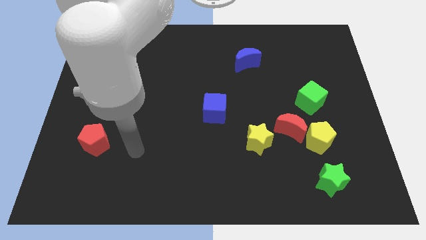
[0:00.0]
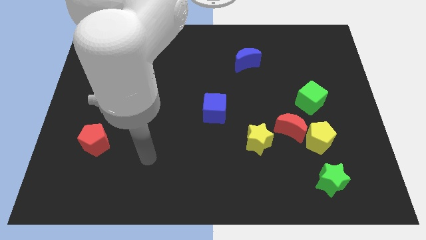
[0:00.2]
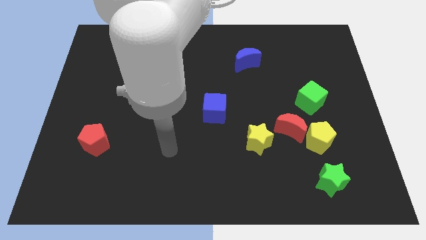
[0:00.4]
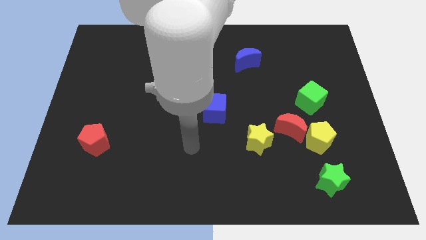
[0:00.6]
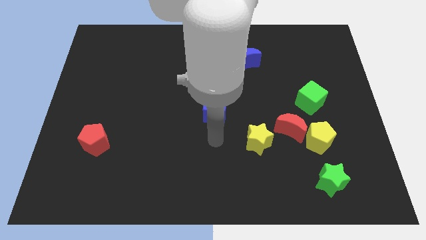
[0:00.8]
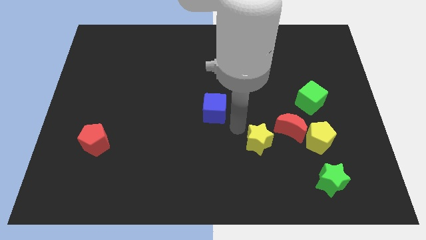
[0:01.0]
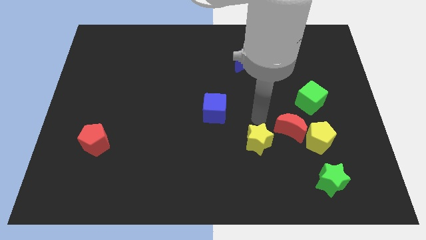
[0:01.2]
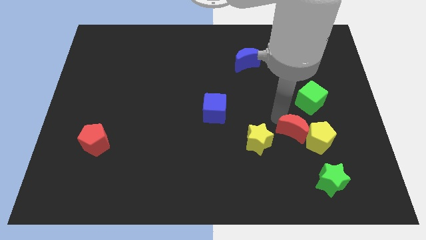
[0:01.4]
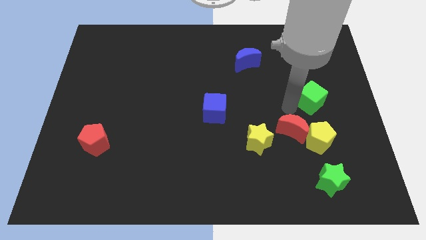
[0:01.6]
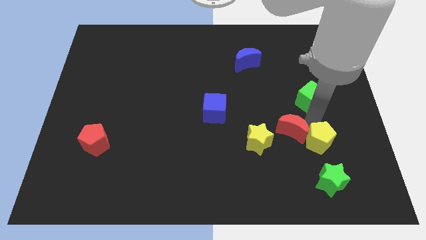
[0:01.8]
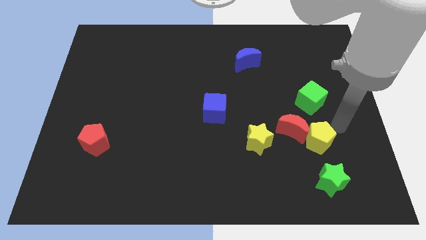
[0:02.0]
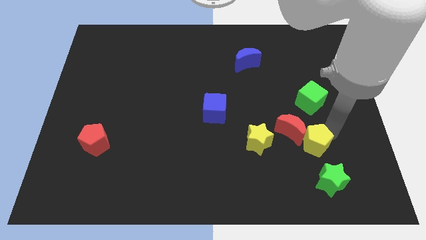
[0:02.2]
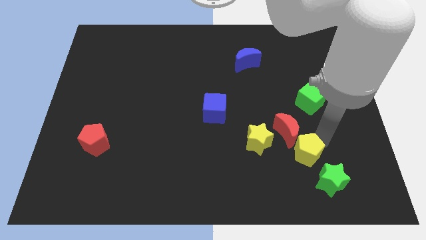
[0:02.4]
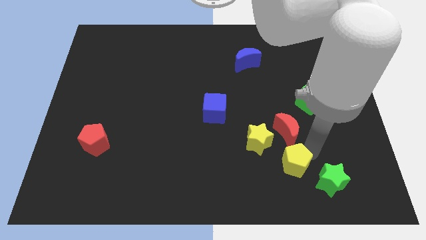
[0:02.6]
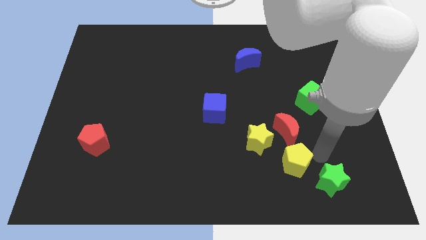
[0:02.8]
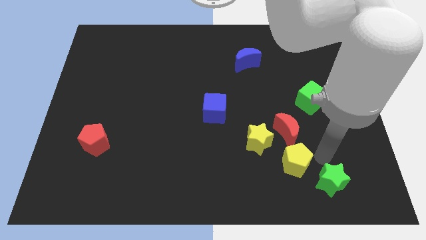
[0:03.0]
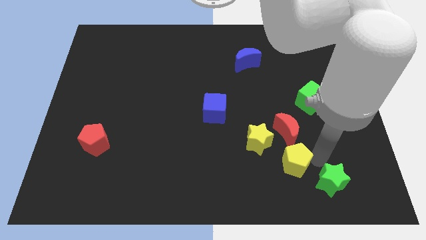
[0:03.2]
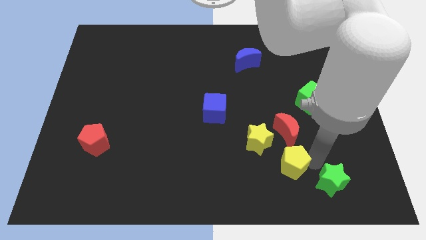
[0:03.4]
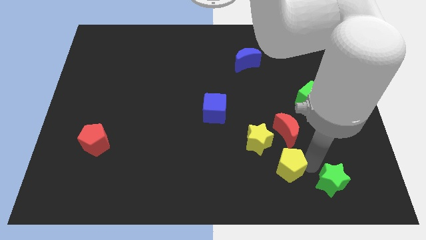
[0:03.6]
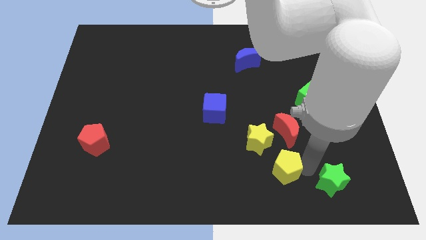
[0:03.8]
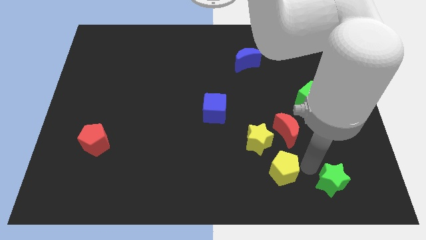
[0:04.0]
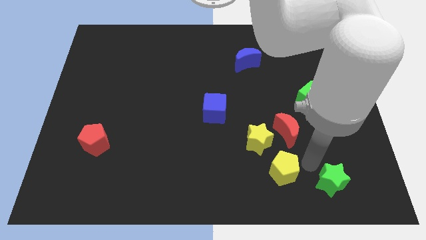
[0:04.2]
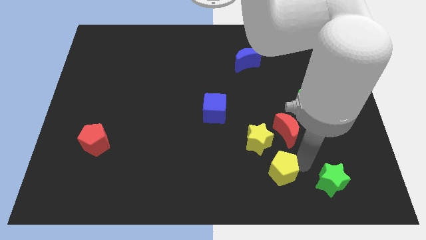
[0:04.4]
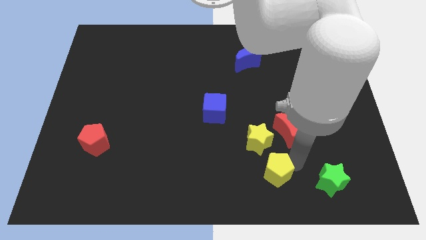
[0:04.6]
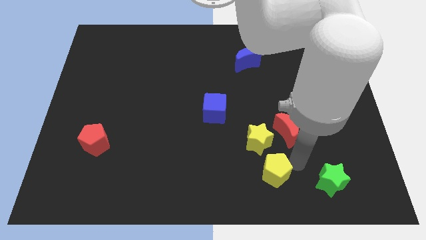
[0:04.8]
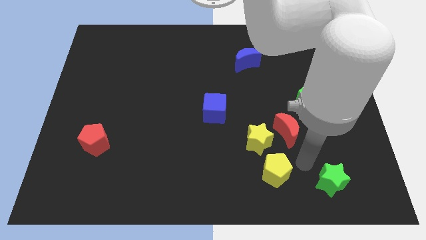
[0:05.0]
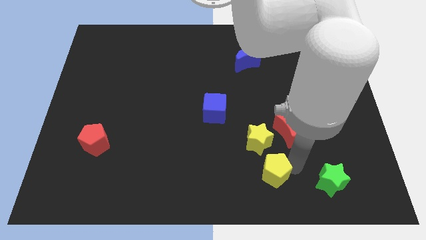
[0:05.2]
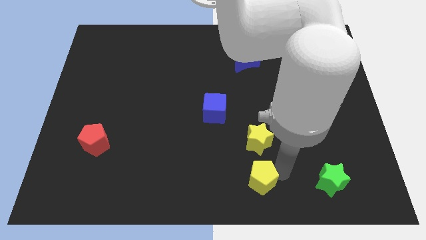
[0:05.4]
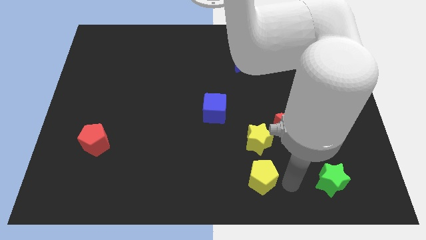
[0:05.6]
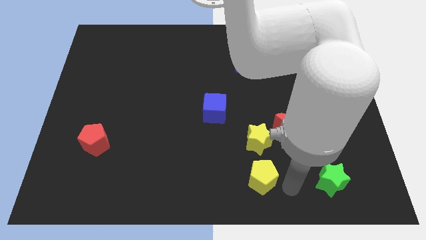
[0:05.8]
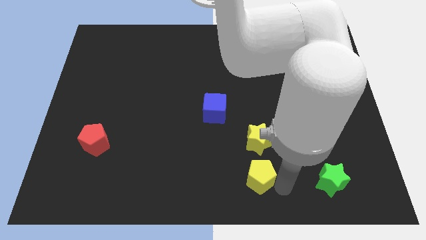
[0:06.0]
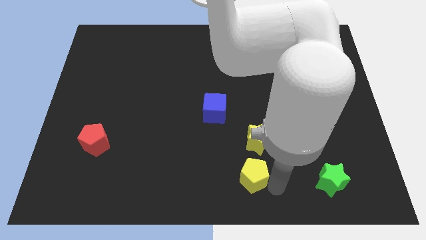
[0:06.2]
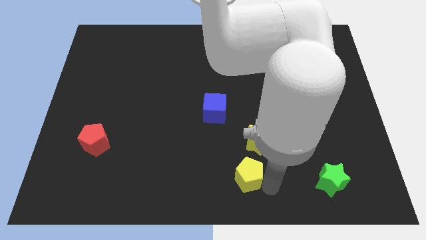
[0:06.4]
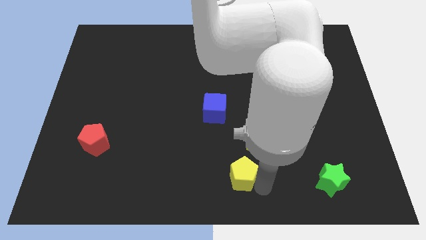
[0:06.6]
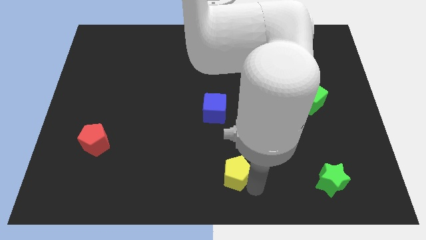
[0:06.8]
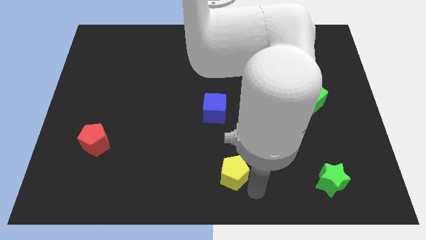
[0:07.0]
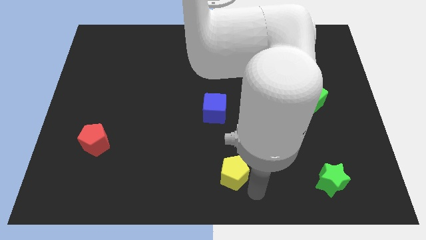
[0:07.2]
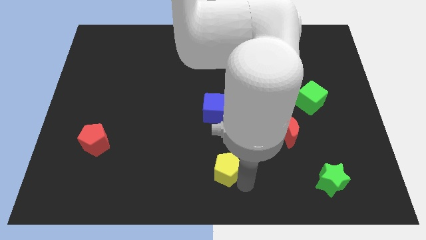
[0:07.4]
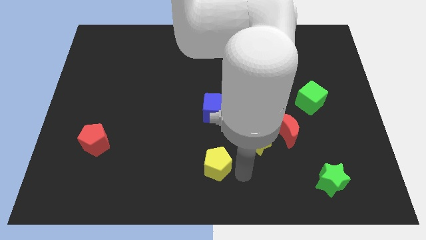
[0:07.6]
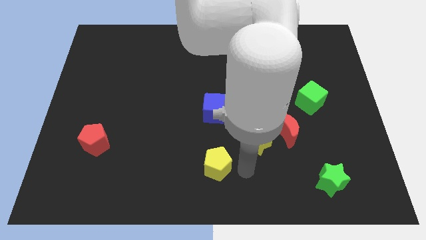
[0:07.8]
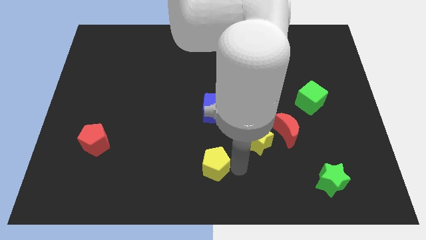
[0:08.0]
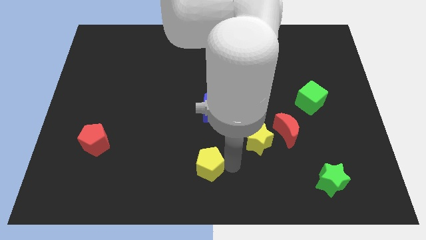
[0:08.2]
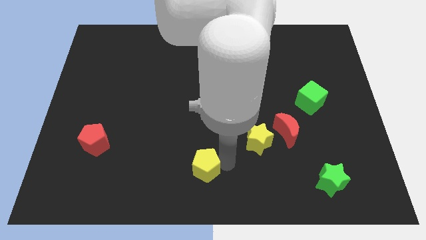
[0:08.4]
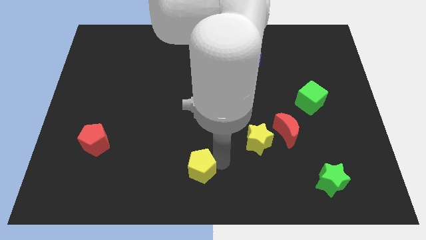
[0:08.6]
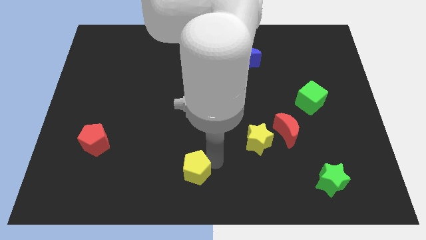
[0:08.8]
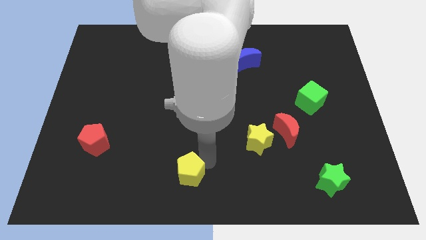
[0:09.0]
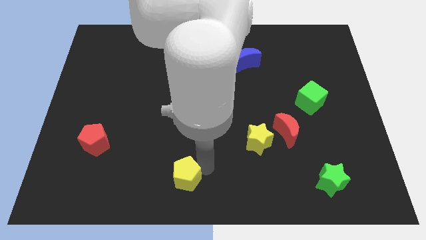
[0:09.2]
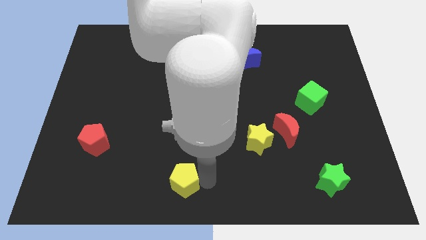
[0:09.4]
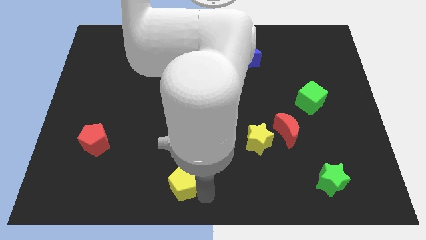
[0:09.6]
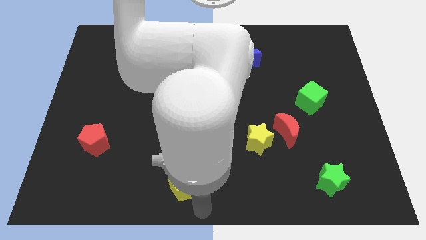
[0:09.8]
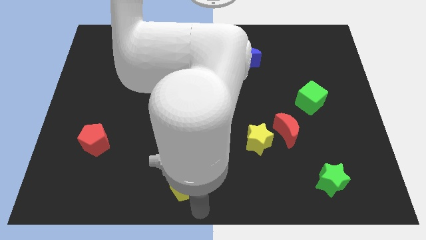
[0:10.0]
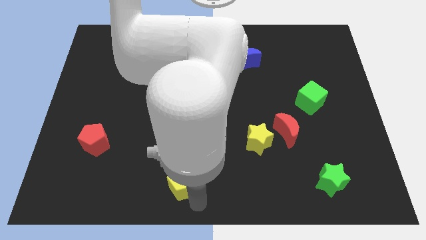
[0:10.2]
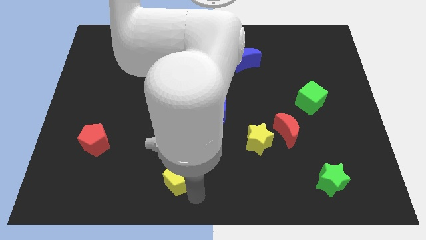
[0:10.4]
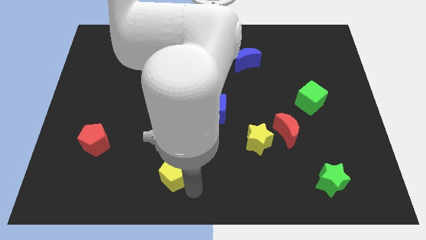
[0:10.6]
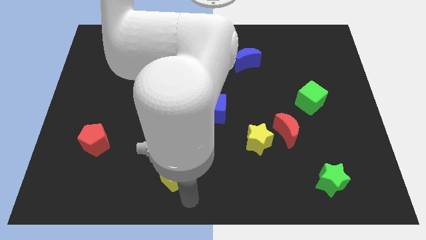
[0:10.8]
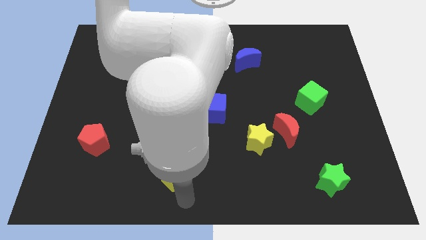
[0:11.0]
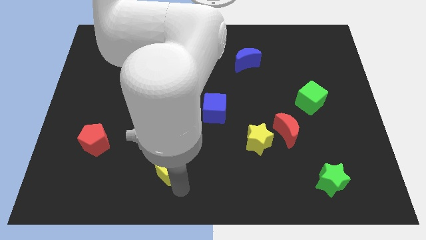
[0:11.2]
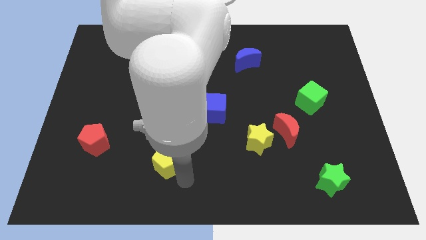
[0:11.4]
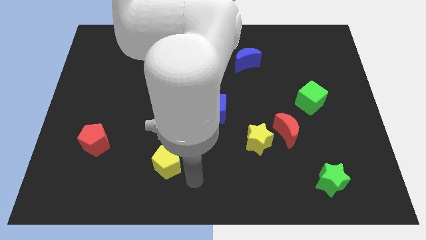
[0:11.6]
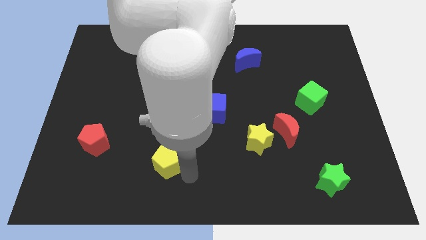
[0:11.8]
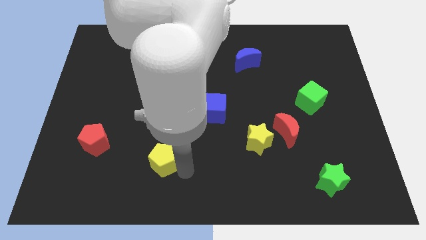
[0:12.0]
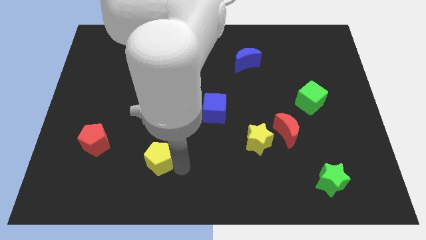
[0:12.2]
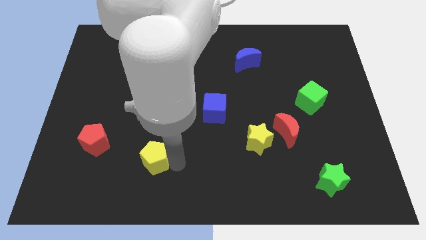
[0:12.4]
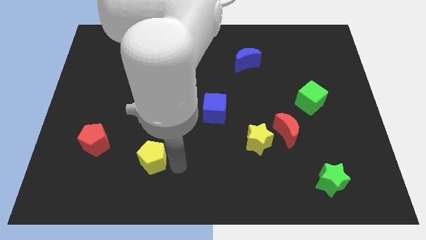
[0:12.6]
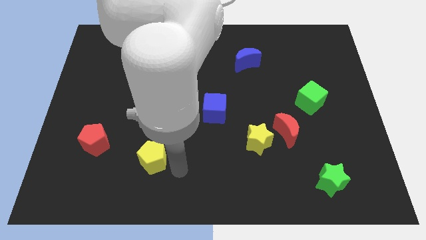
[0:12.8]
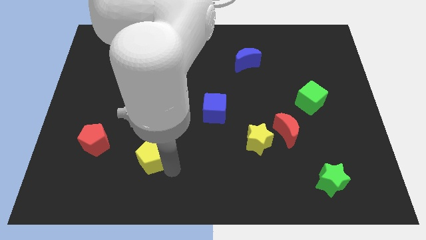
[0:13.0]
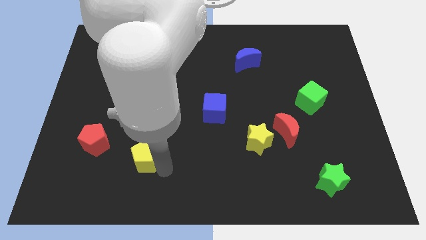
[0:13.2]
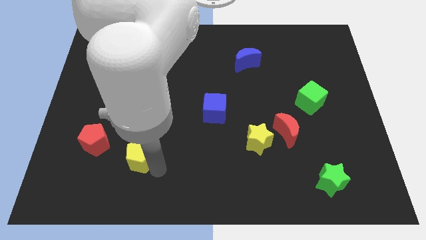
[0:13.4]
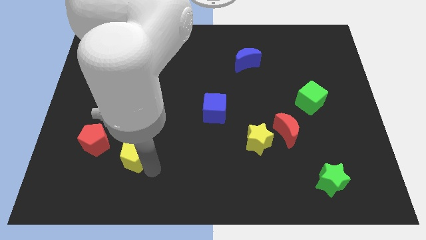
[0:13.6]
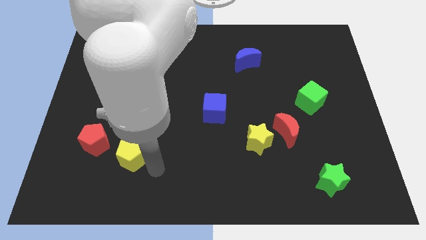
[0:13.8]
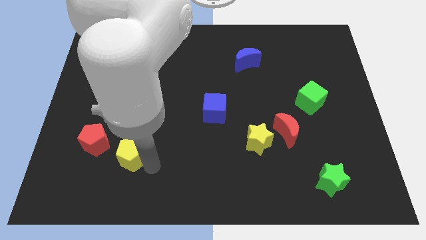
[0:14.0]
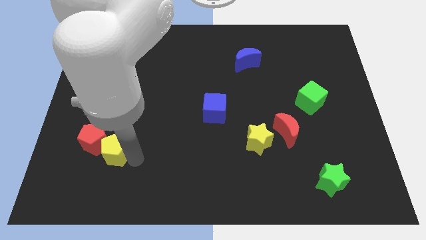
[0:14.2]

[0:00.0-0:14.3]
push the yellow pentagon towards the red pentagon

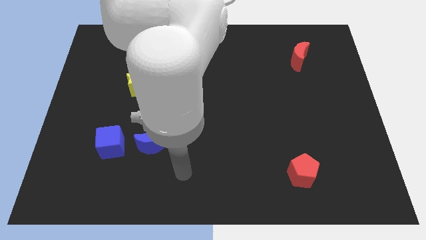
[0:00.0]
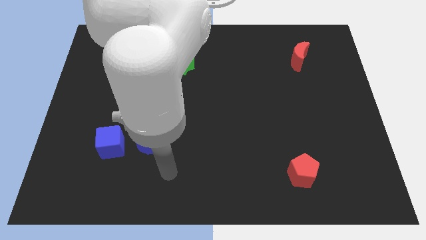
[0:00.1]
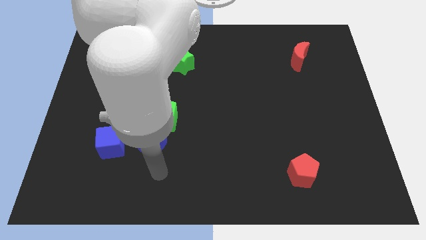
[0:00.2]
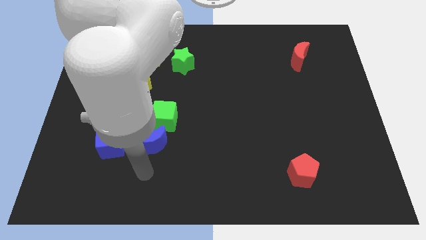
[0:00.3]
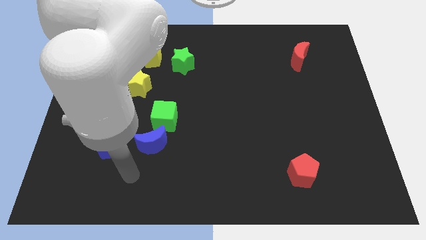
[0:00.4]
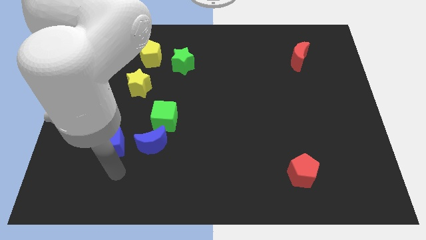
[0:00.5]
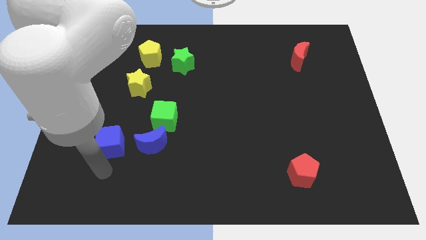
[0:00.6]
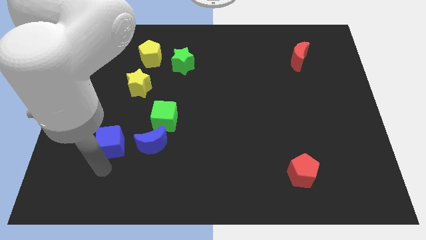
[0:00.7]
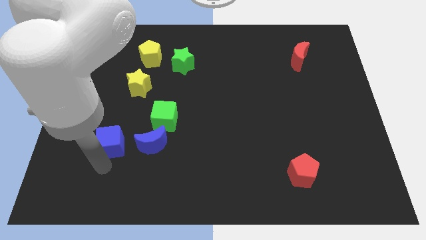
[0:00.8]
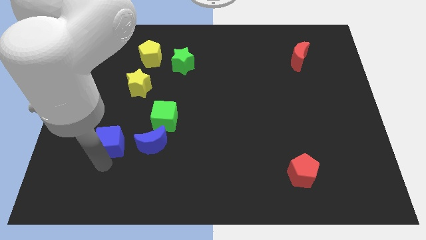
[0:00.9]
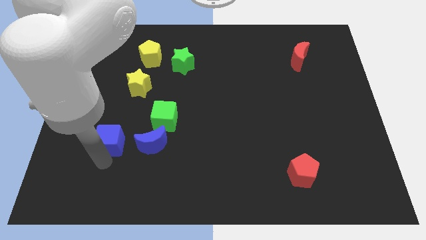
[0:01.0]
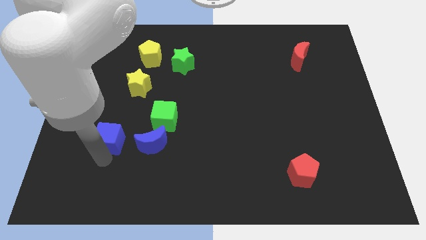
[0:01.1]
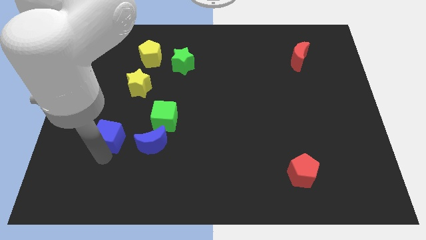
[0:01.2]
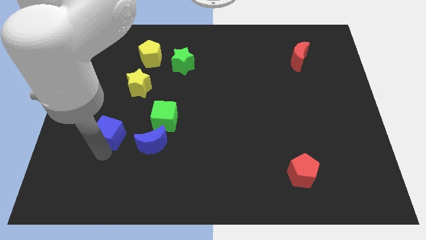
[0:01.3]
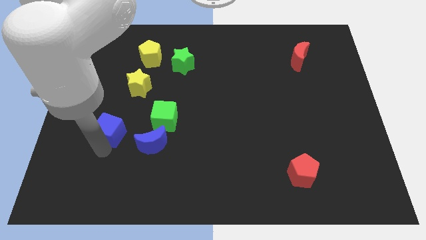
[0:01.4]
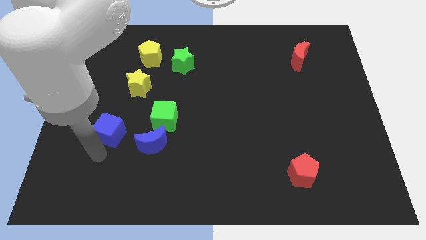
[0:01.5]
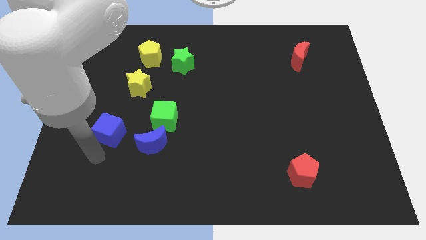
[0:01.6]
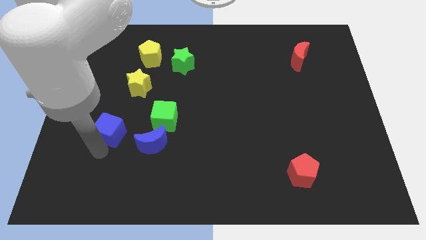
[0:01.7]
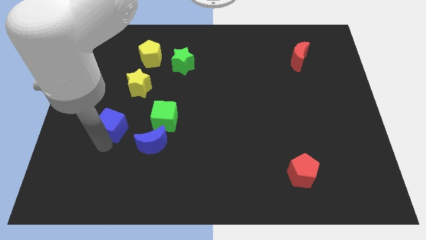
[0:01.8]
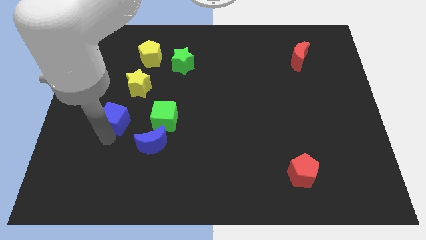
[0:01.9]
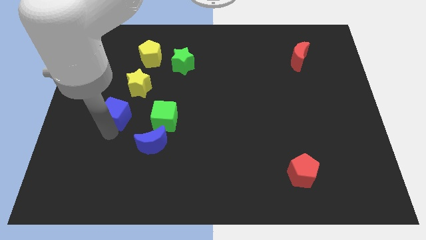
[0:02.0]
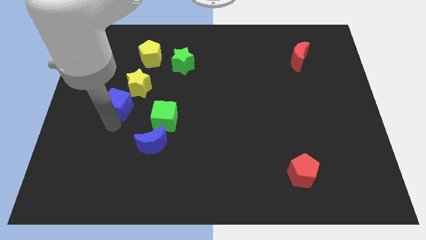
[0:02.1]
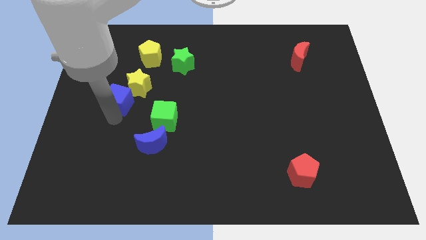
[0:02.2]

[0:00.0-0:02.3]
put the blue cube close to the yellow star
